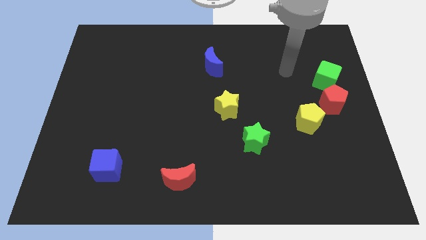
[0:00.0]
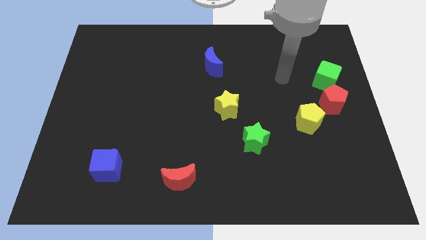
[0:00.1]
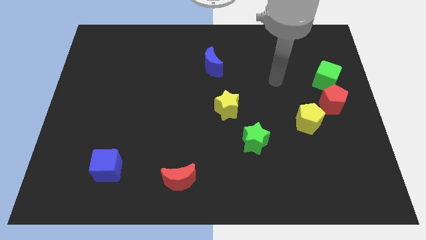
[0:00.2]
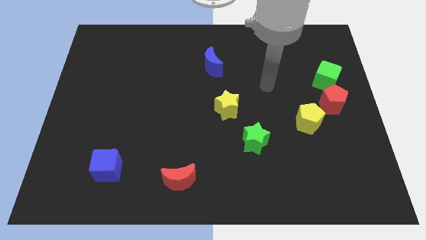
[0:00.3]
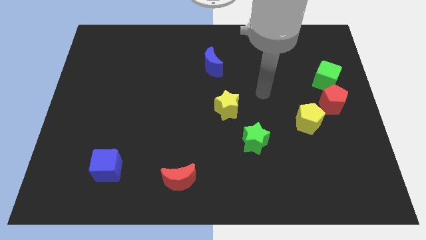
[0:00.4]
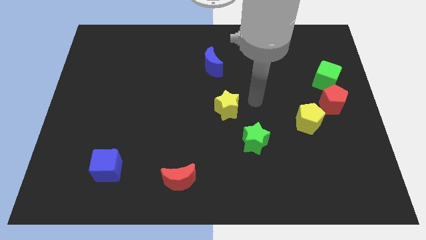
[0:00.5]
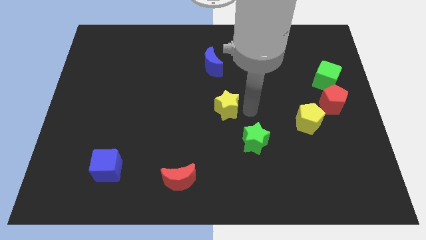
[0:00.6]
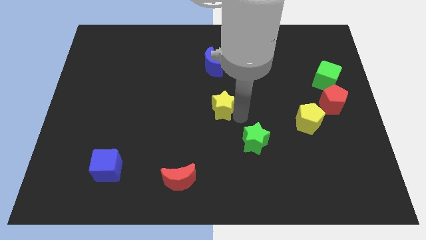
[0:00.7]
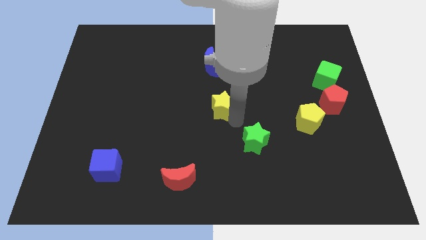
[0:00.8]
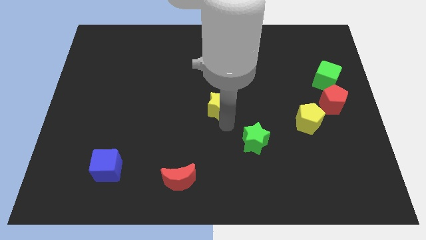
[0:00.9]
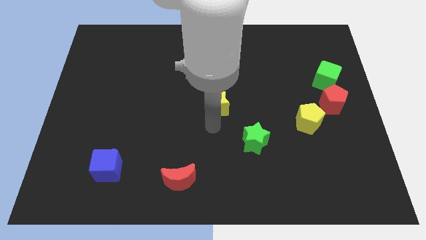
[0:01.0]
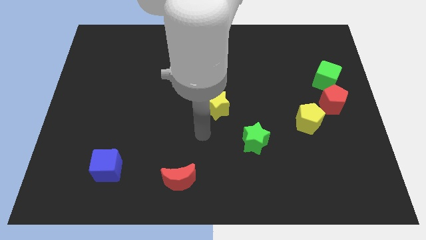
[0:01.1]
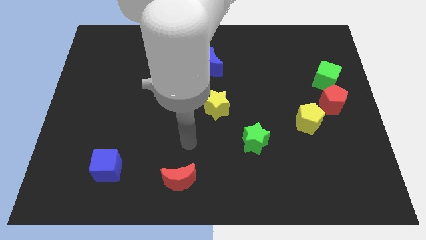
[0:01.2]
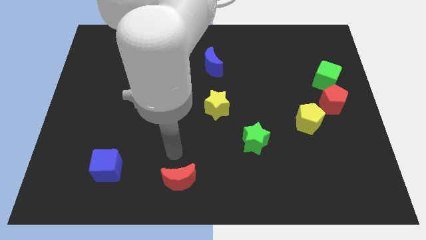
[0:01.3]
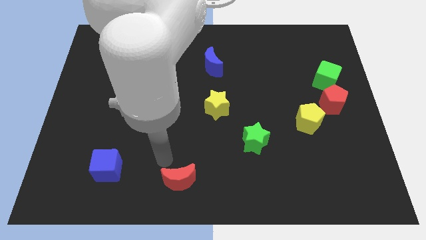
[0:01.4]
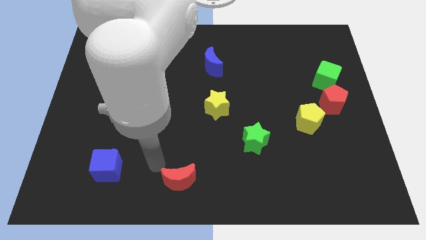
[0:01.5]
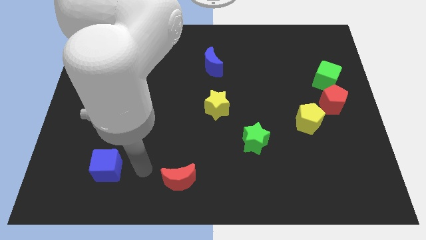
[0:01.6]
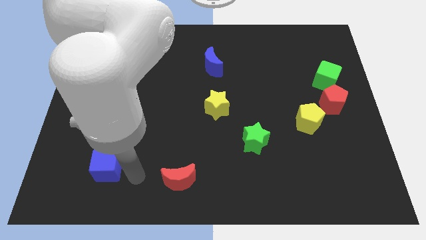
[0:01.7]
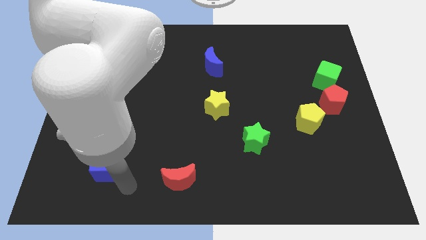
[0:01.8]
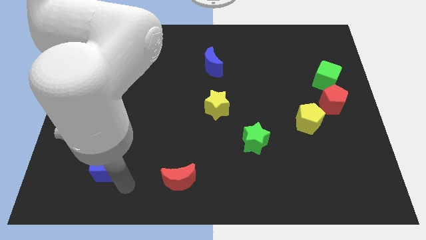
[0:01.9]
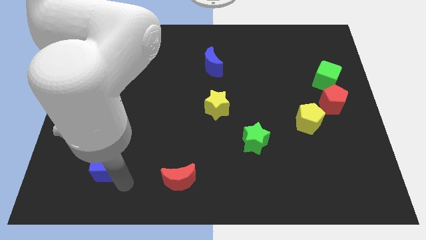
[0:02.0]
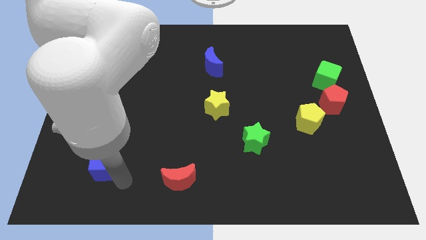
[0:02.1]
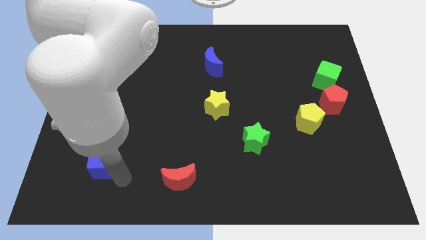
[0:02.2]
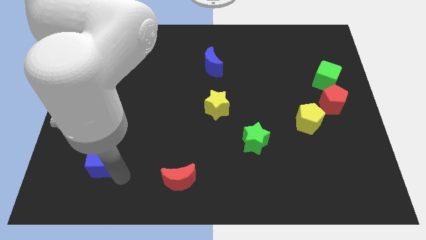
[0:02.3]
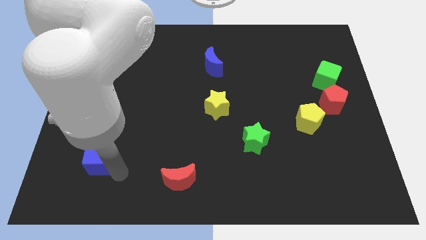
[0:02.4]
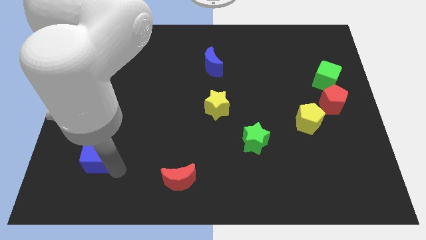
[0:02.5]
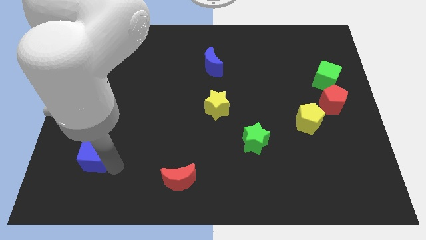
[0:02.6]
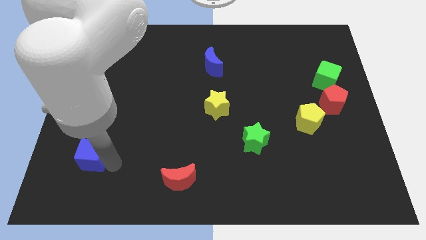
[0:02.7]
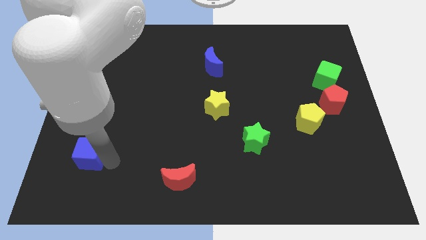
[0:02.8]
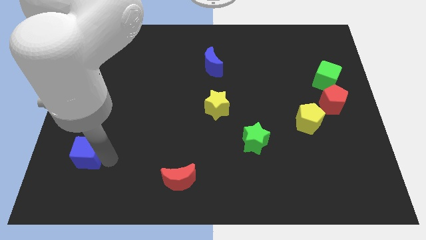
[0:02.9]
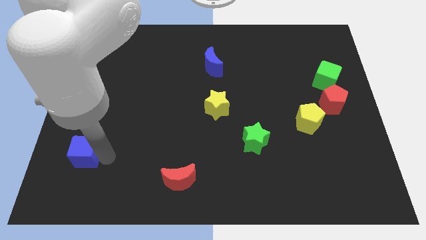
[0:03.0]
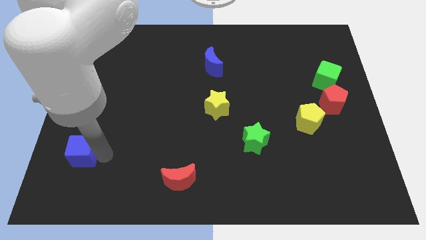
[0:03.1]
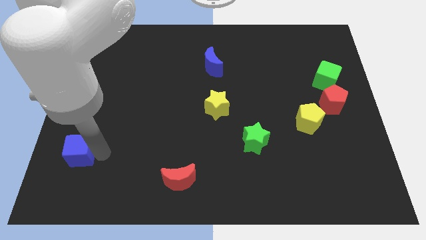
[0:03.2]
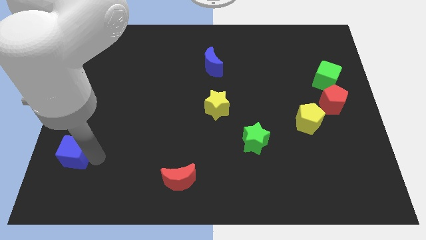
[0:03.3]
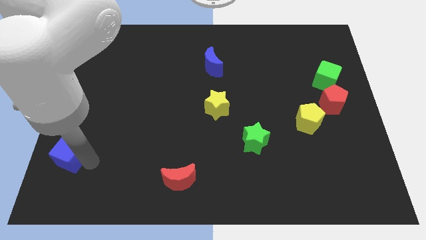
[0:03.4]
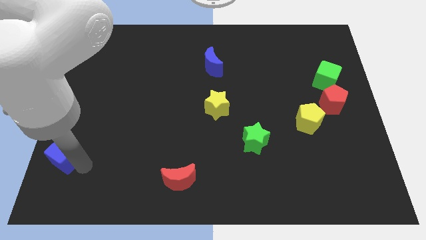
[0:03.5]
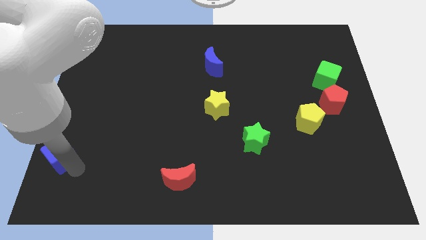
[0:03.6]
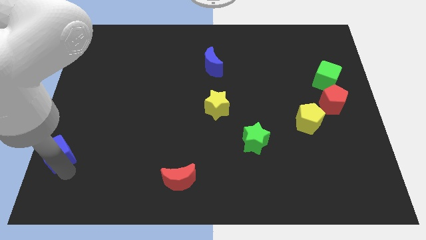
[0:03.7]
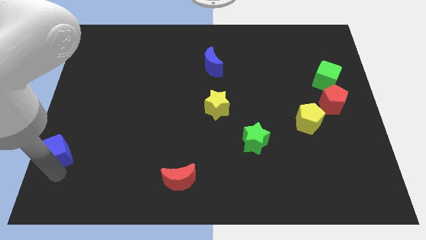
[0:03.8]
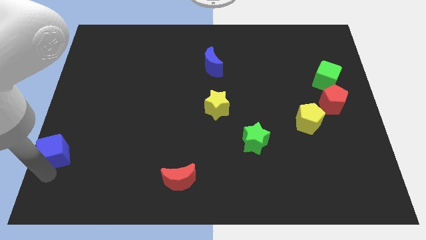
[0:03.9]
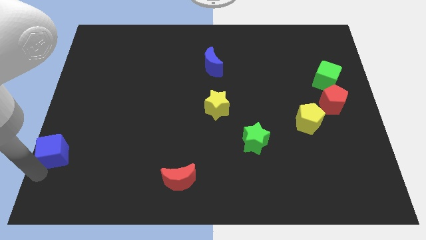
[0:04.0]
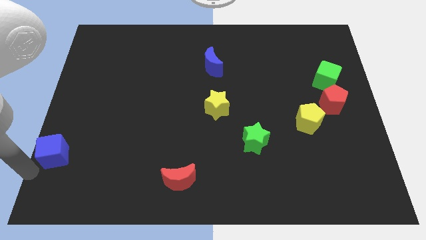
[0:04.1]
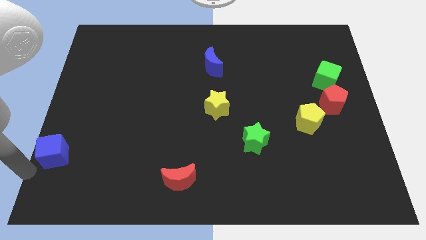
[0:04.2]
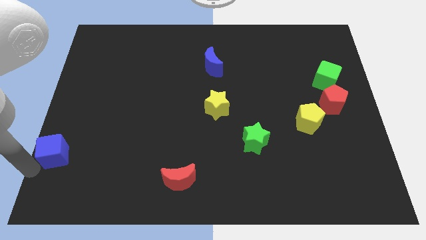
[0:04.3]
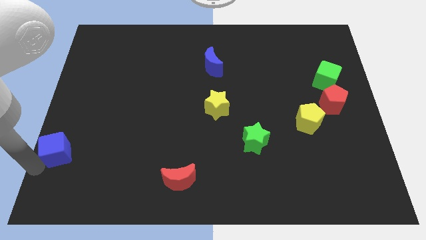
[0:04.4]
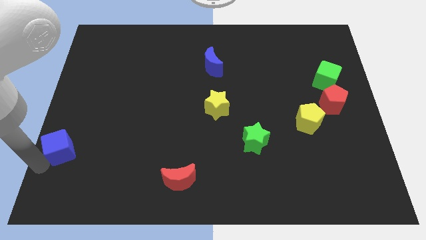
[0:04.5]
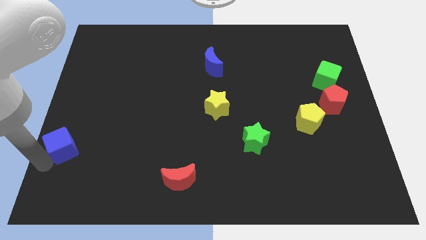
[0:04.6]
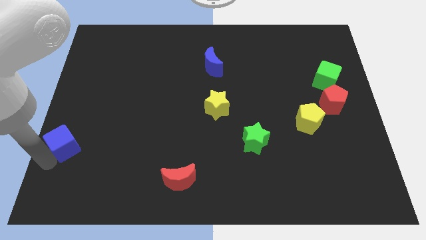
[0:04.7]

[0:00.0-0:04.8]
move the blue cube to the center left

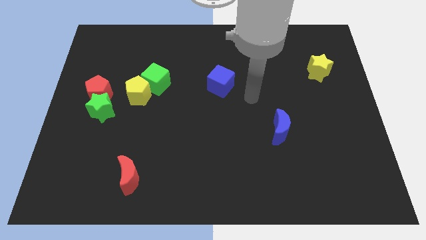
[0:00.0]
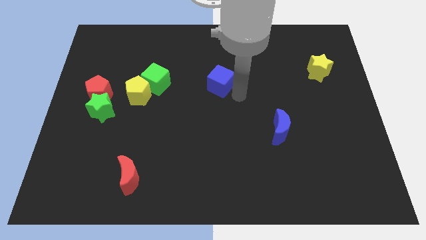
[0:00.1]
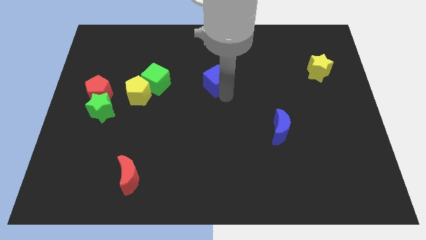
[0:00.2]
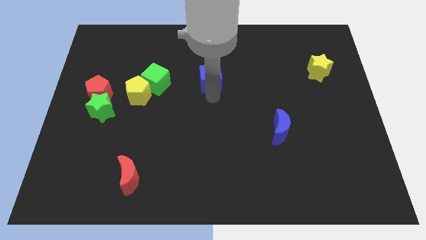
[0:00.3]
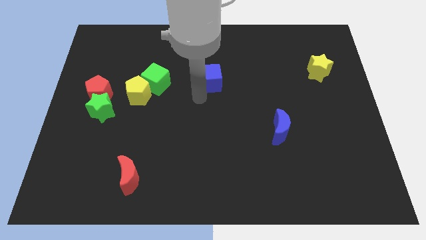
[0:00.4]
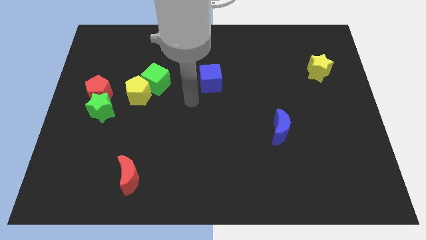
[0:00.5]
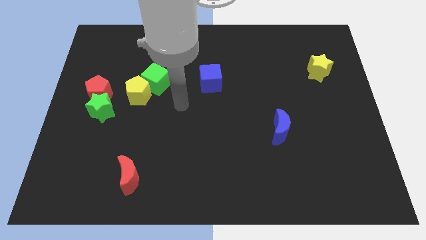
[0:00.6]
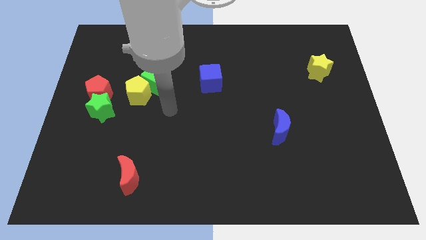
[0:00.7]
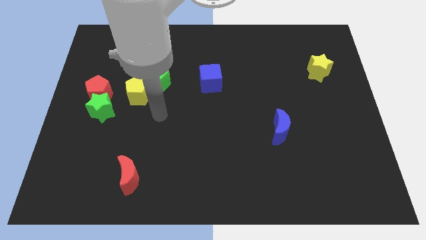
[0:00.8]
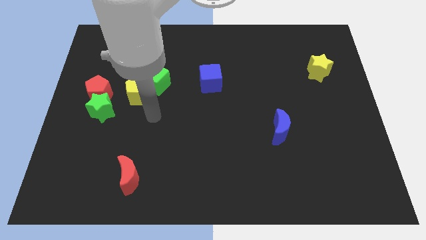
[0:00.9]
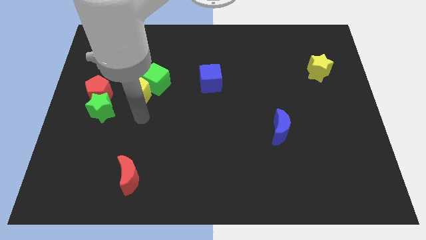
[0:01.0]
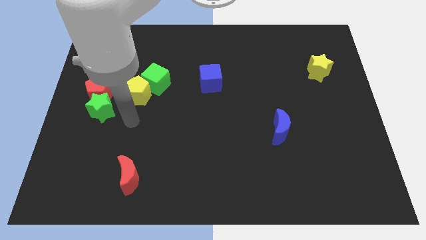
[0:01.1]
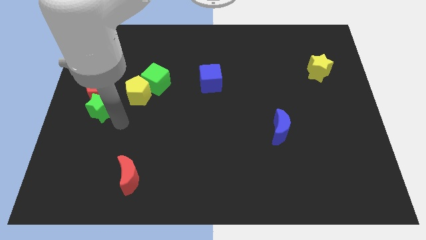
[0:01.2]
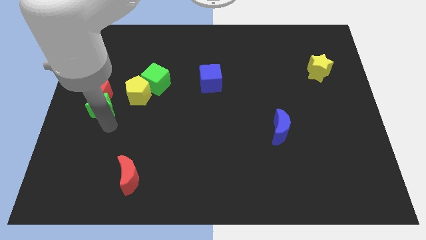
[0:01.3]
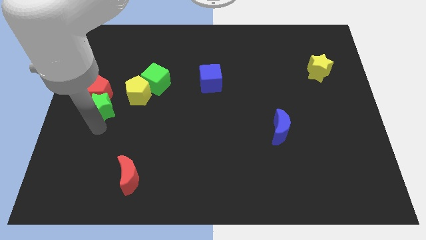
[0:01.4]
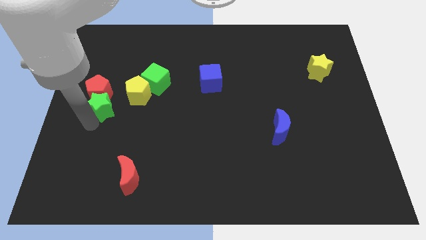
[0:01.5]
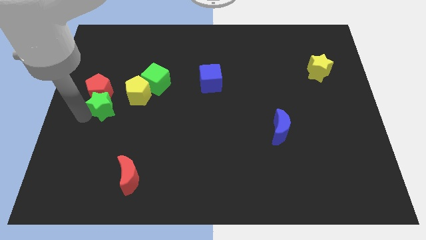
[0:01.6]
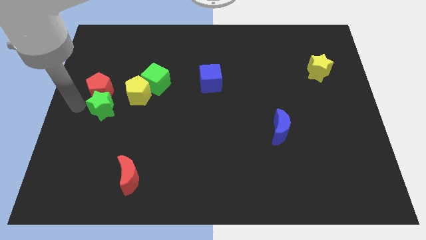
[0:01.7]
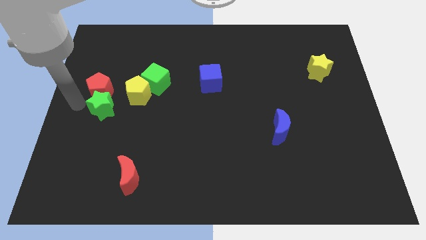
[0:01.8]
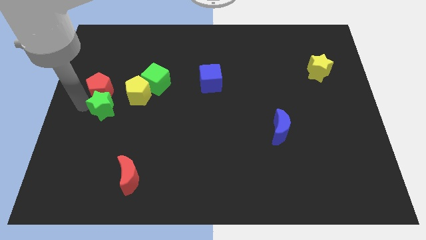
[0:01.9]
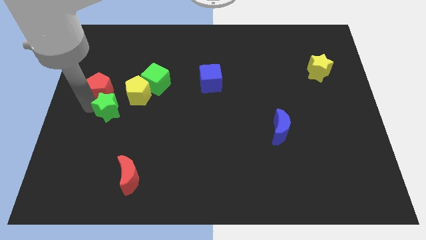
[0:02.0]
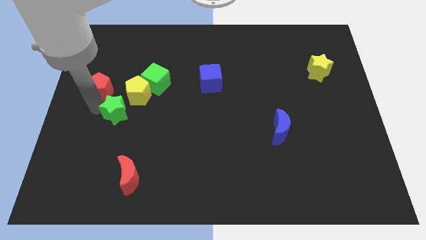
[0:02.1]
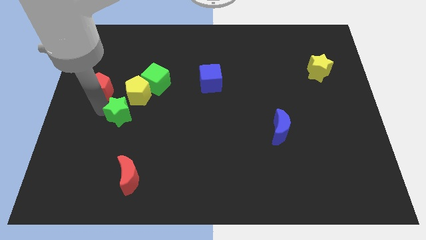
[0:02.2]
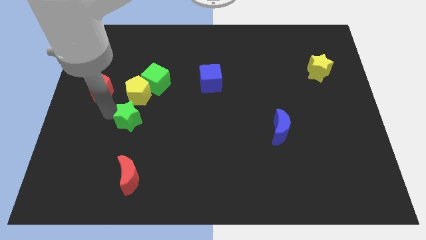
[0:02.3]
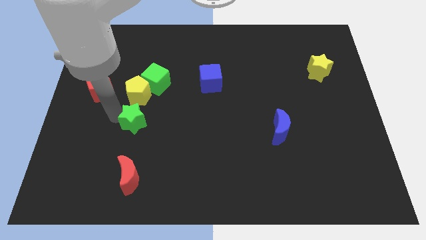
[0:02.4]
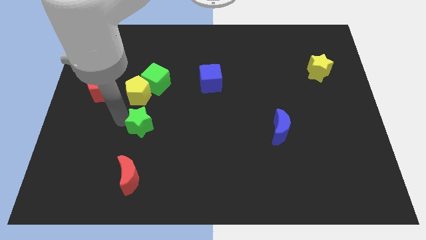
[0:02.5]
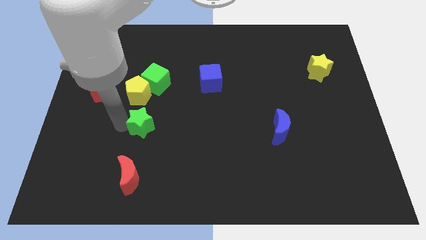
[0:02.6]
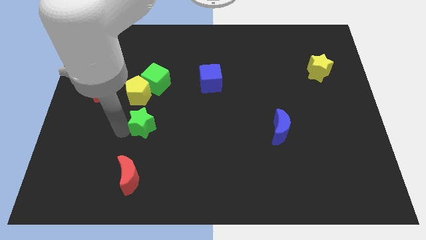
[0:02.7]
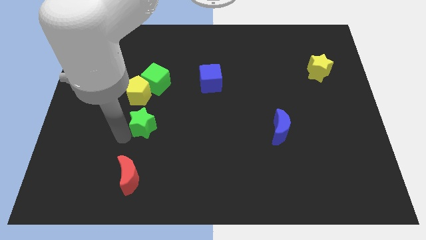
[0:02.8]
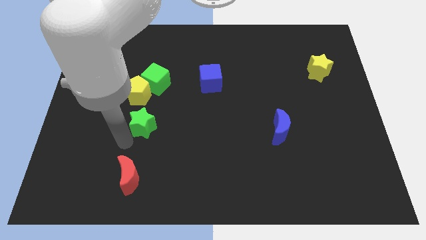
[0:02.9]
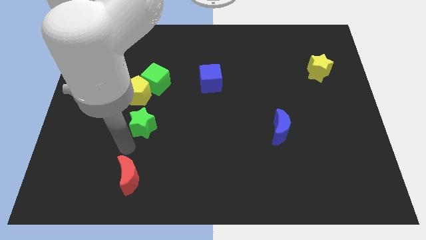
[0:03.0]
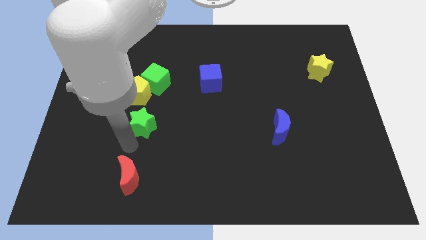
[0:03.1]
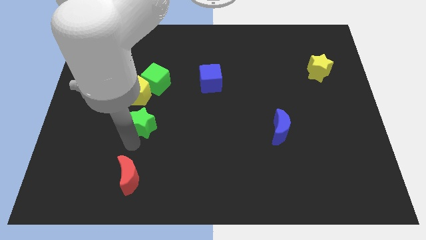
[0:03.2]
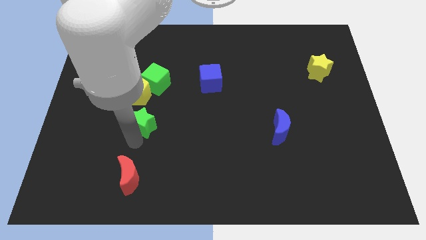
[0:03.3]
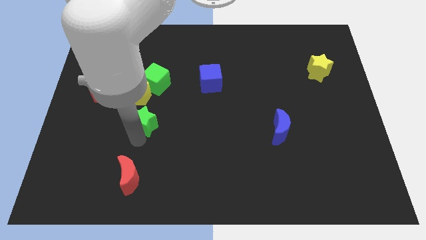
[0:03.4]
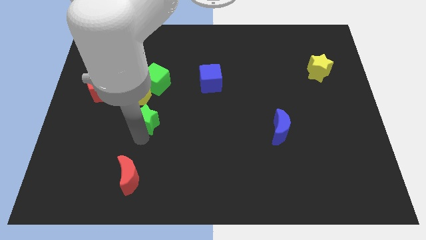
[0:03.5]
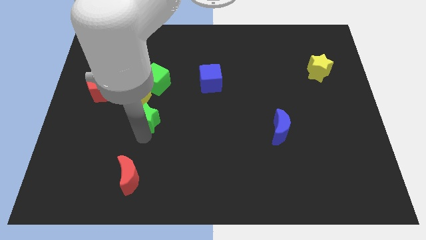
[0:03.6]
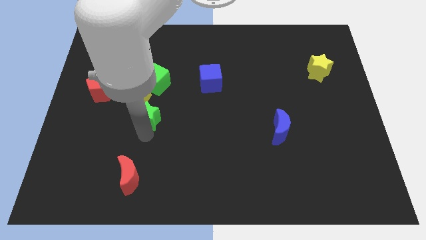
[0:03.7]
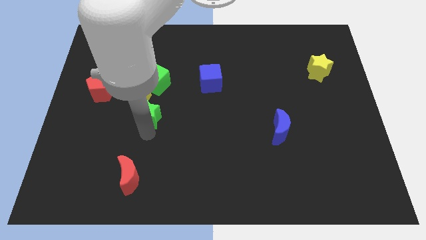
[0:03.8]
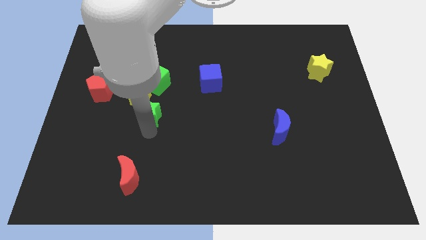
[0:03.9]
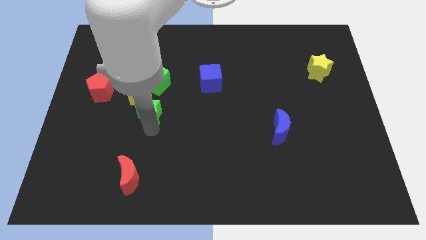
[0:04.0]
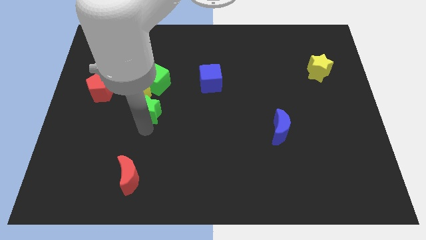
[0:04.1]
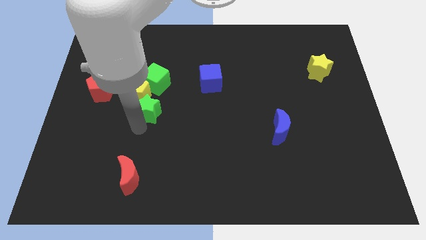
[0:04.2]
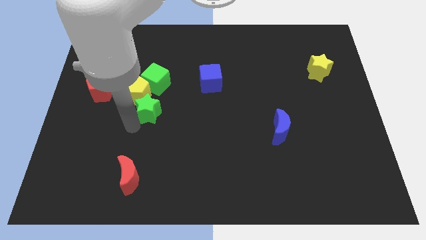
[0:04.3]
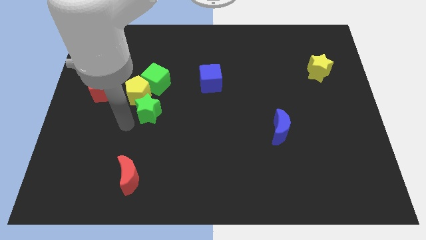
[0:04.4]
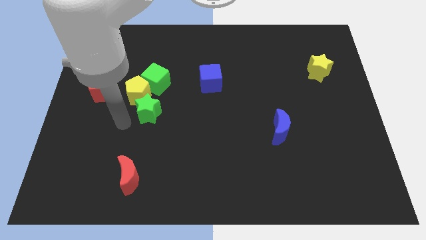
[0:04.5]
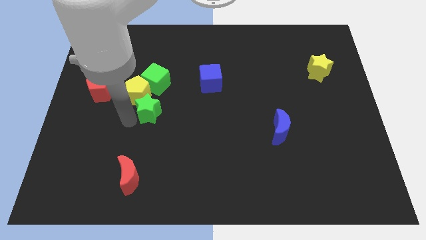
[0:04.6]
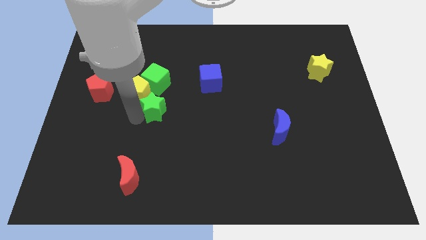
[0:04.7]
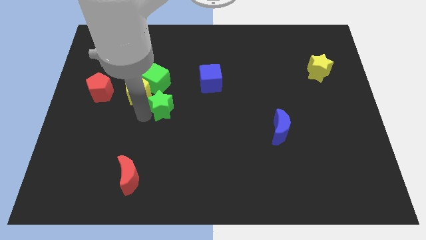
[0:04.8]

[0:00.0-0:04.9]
move the green star to the middle
